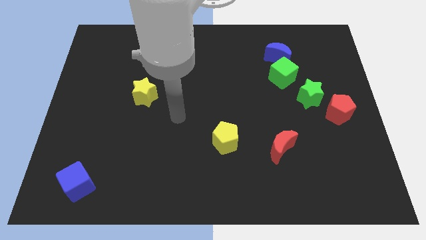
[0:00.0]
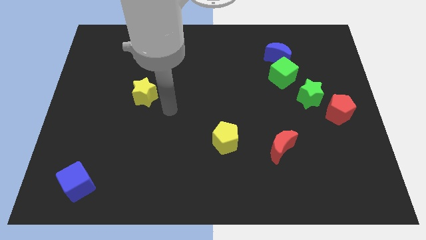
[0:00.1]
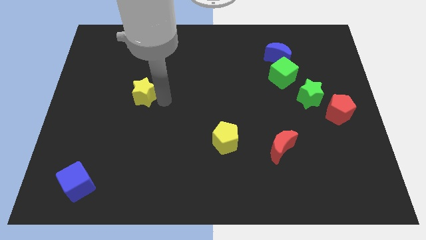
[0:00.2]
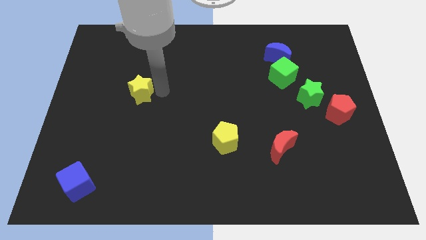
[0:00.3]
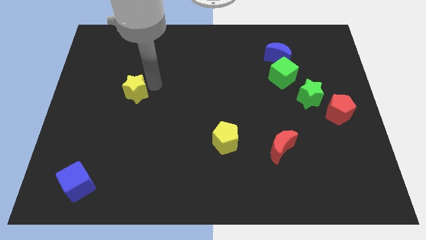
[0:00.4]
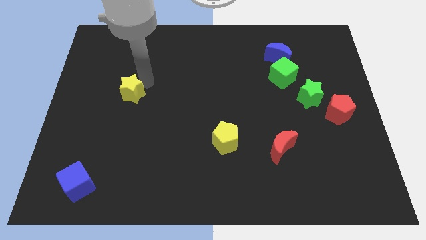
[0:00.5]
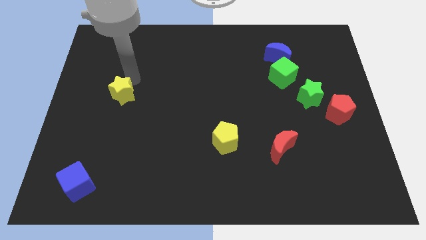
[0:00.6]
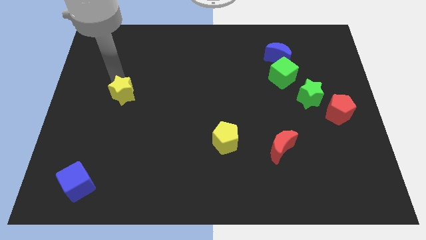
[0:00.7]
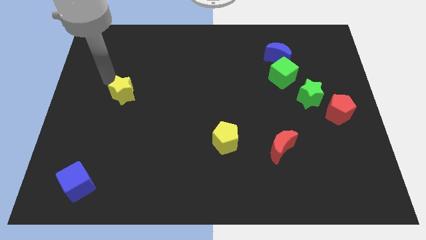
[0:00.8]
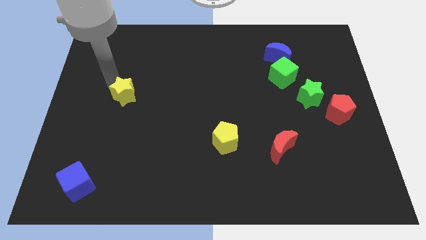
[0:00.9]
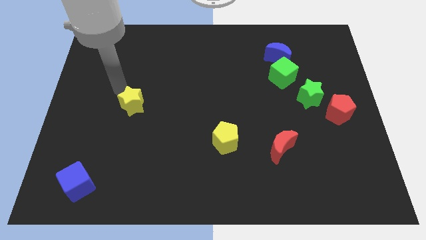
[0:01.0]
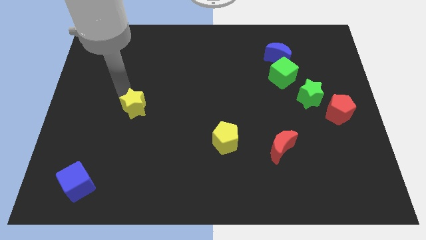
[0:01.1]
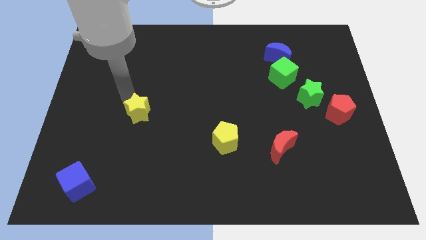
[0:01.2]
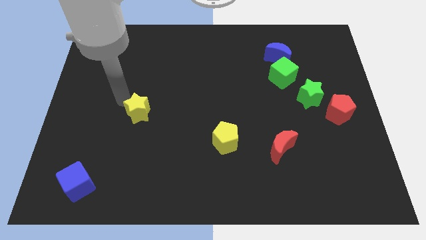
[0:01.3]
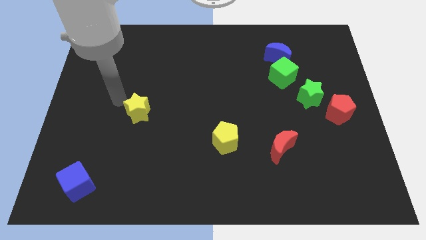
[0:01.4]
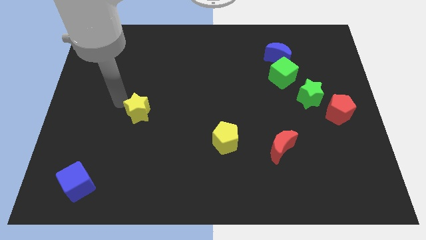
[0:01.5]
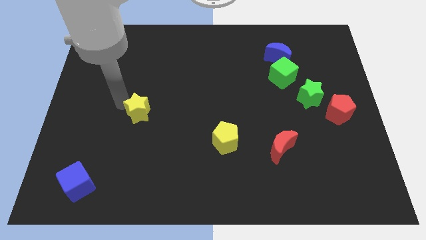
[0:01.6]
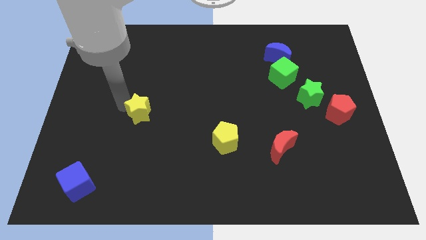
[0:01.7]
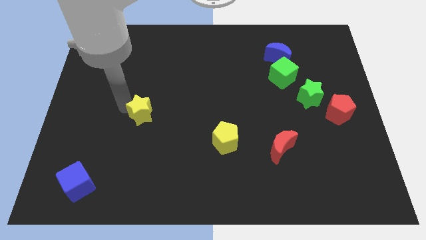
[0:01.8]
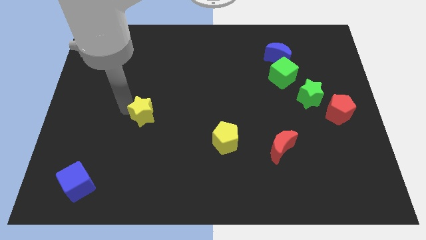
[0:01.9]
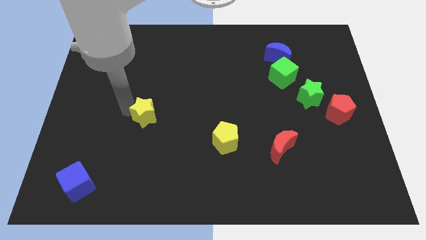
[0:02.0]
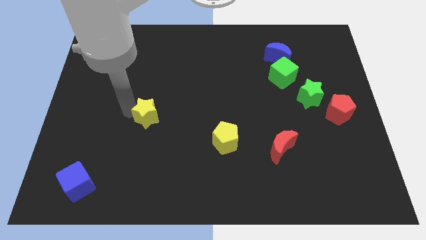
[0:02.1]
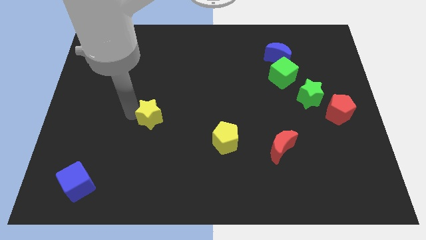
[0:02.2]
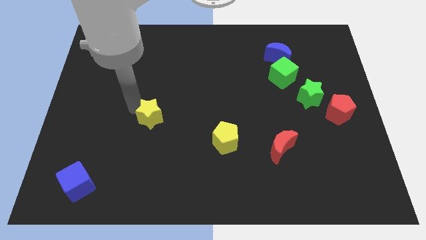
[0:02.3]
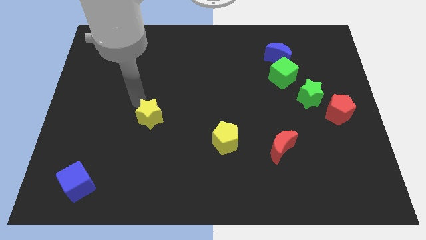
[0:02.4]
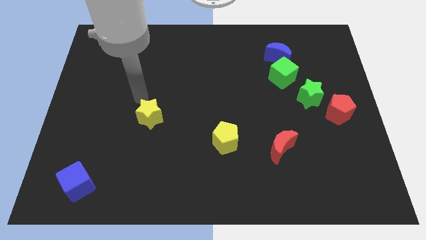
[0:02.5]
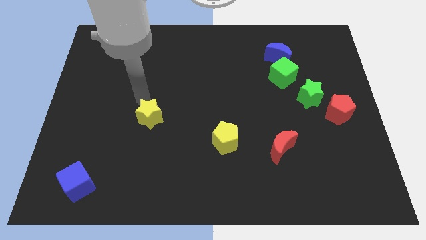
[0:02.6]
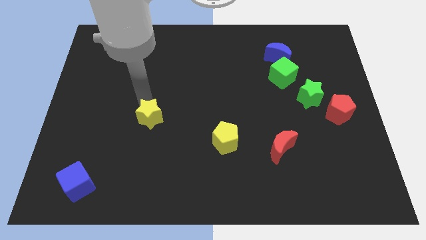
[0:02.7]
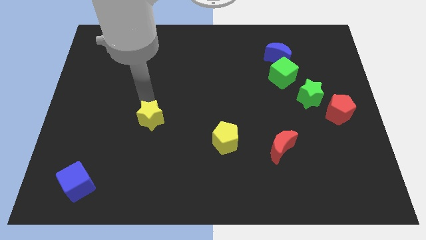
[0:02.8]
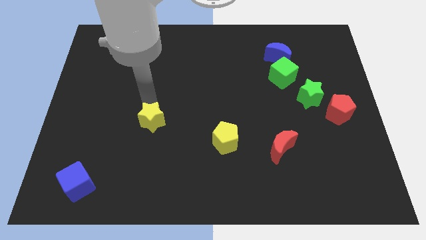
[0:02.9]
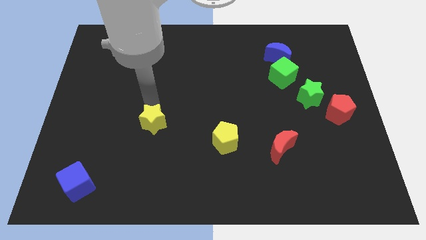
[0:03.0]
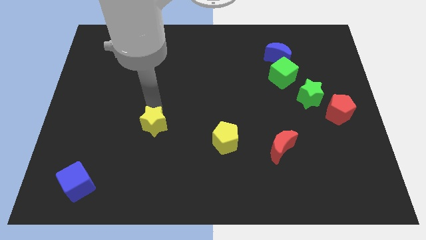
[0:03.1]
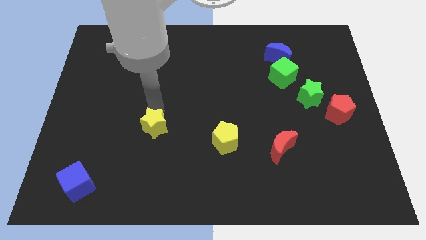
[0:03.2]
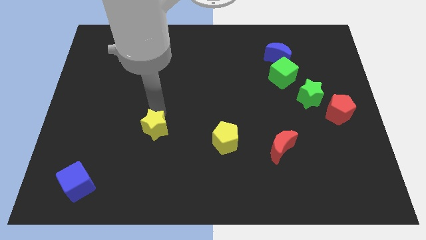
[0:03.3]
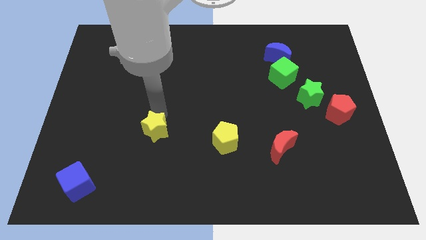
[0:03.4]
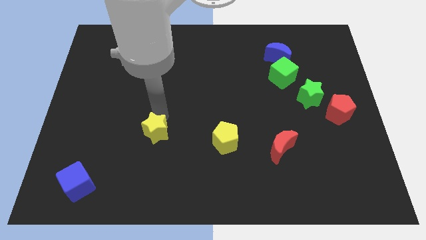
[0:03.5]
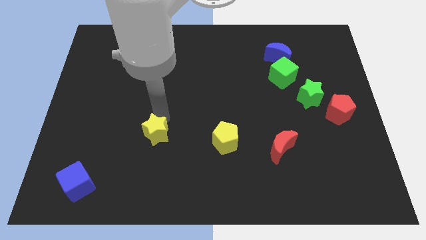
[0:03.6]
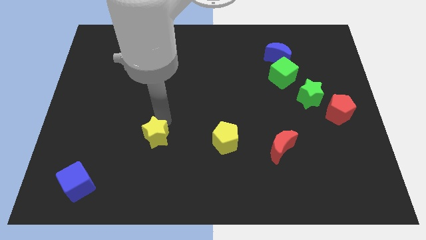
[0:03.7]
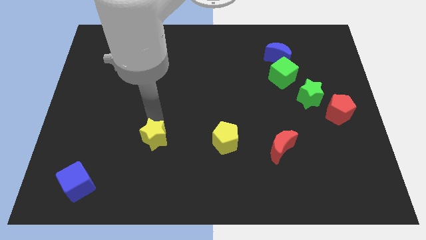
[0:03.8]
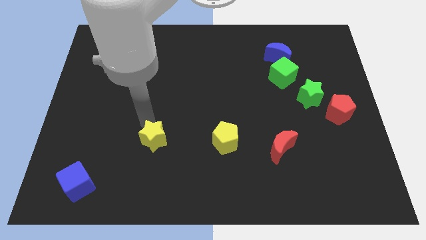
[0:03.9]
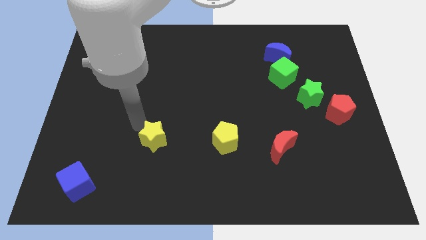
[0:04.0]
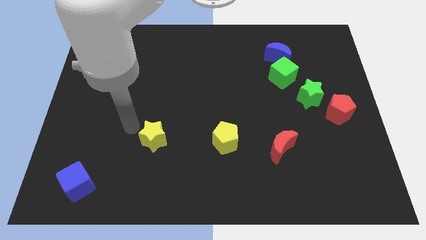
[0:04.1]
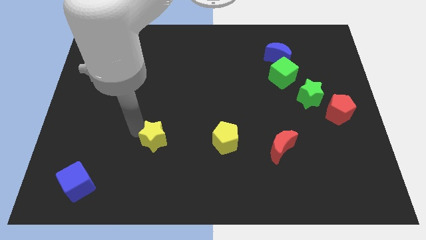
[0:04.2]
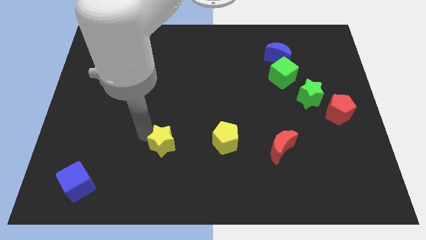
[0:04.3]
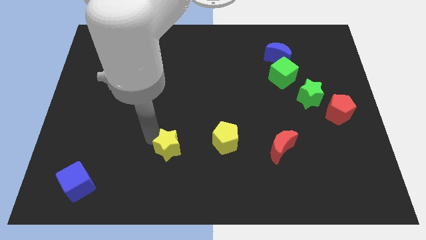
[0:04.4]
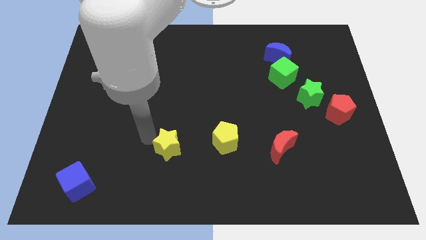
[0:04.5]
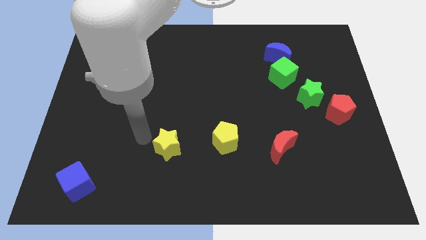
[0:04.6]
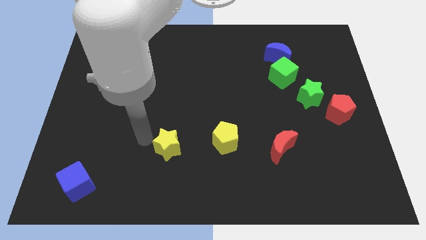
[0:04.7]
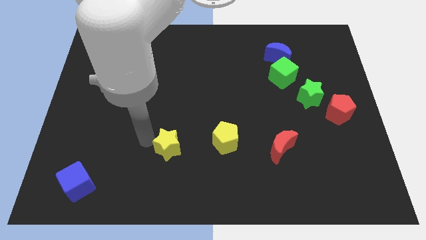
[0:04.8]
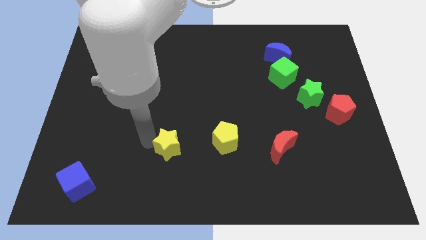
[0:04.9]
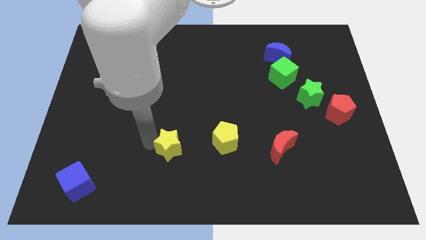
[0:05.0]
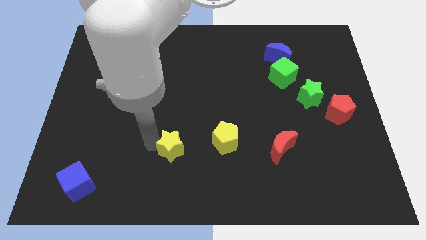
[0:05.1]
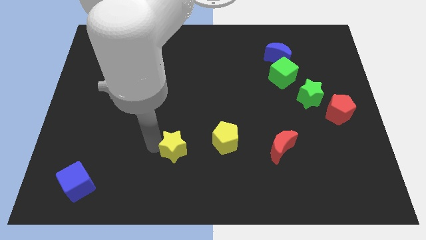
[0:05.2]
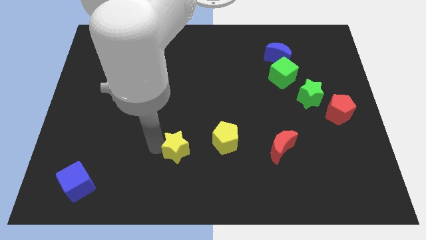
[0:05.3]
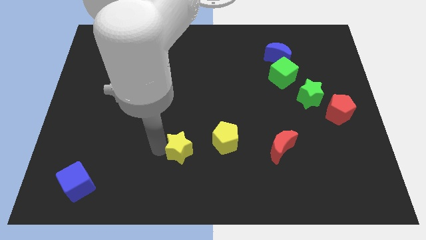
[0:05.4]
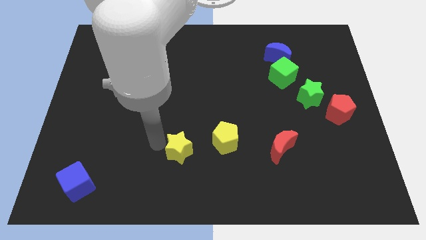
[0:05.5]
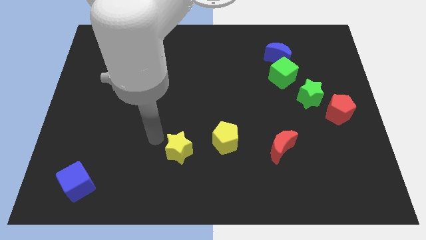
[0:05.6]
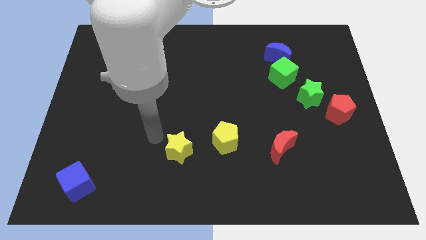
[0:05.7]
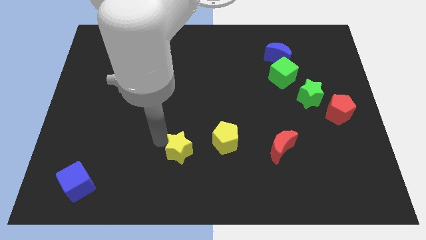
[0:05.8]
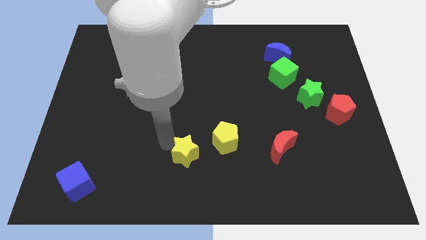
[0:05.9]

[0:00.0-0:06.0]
put the yellow star diagonally down and to the left of the yellow pentagon

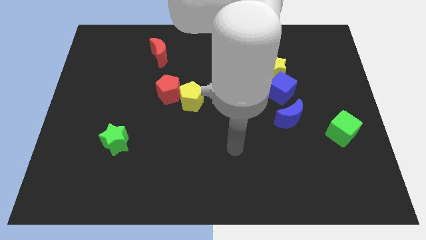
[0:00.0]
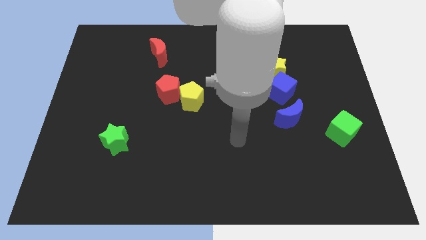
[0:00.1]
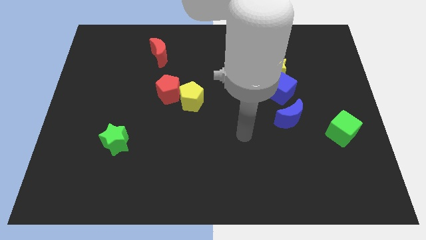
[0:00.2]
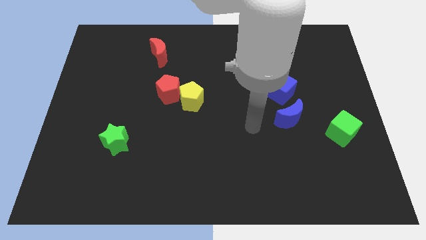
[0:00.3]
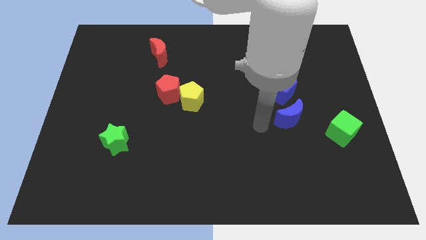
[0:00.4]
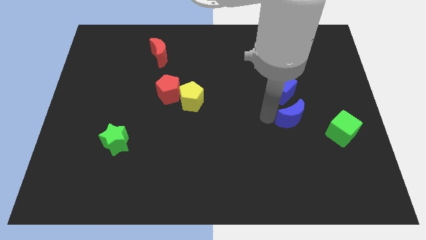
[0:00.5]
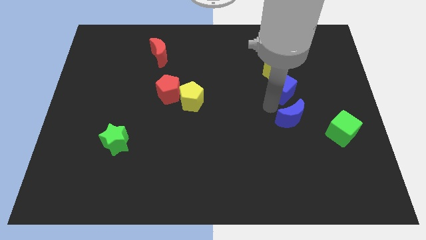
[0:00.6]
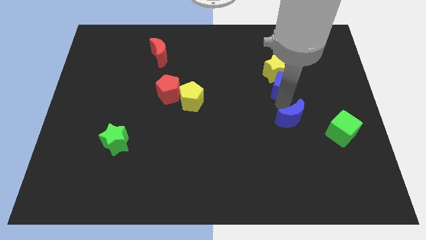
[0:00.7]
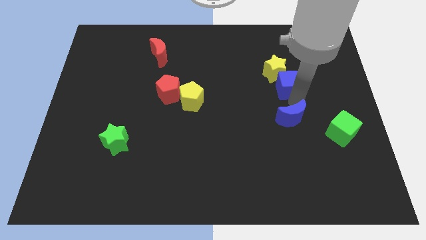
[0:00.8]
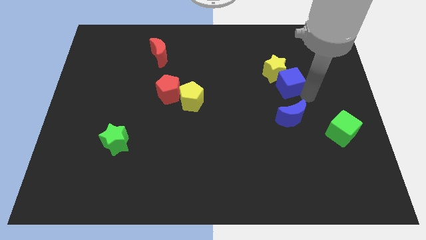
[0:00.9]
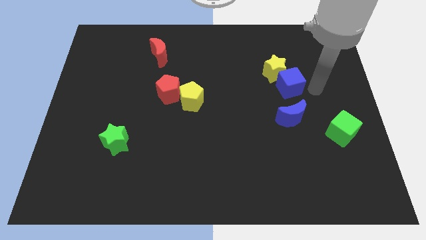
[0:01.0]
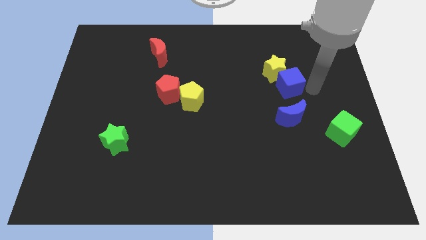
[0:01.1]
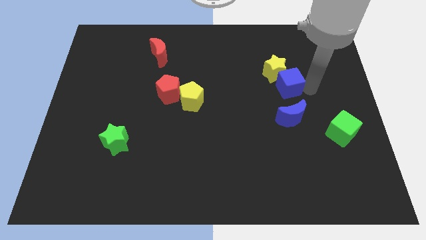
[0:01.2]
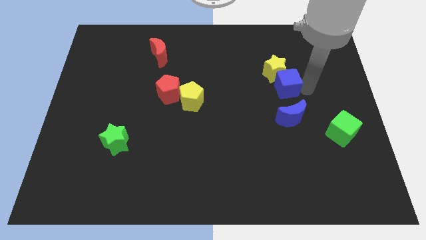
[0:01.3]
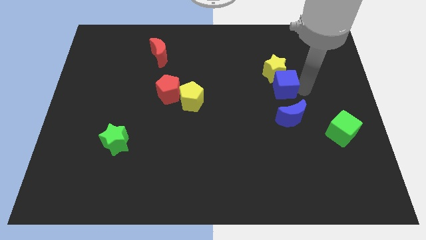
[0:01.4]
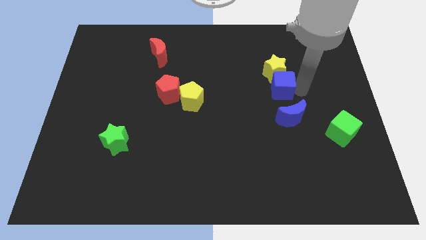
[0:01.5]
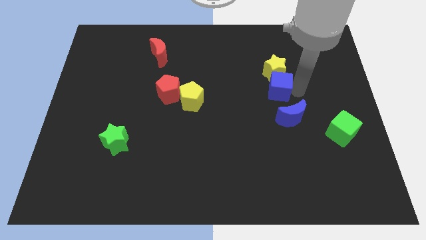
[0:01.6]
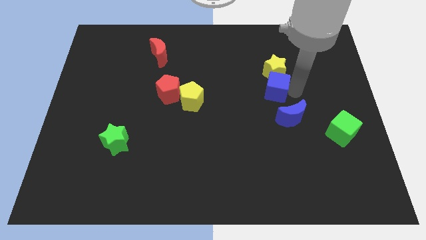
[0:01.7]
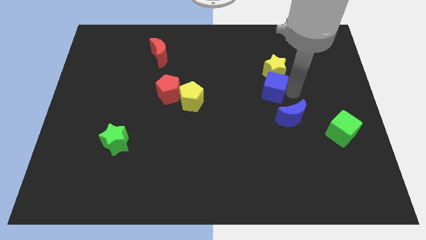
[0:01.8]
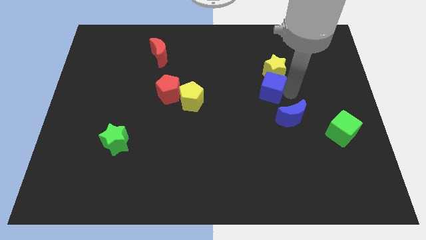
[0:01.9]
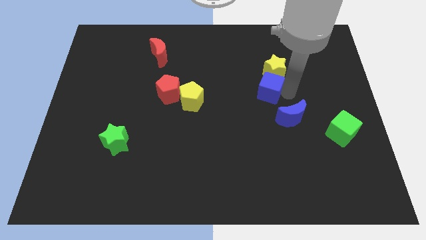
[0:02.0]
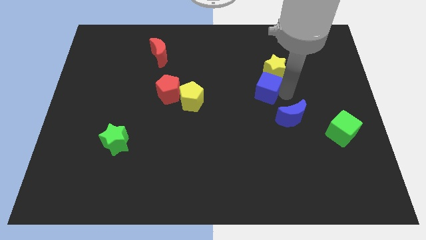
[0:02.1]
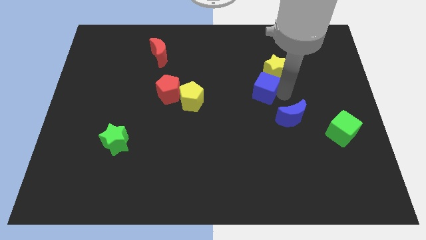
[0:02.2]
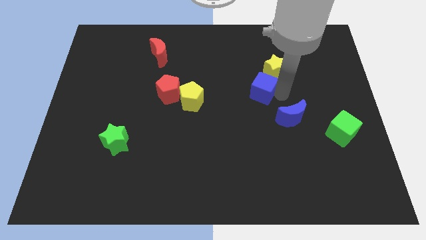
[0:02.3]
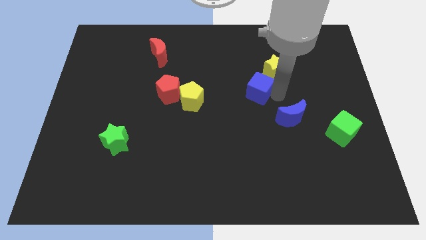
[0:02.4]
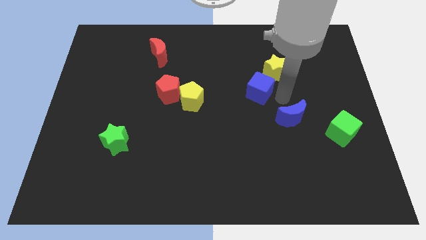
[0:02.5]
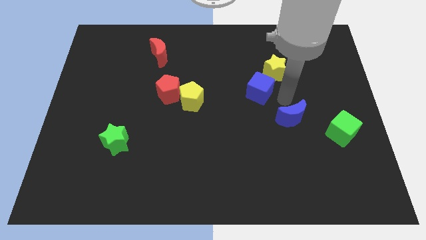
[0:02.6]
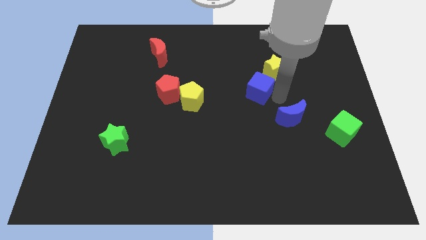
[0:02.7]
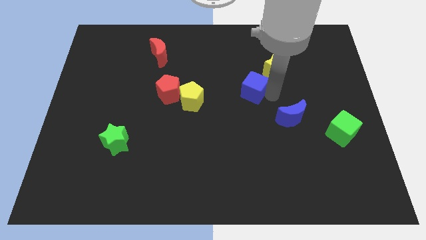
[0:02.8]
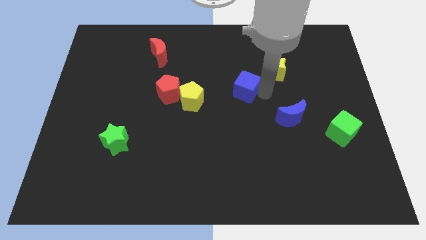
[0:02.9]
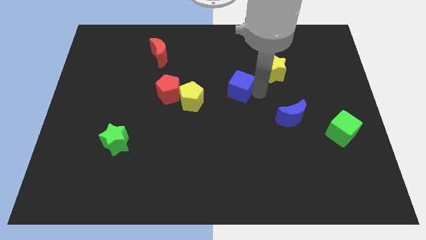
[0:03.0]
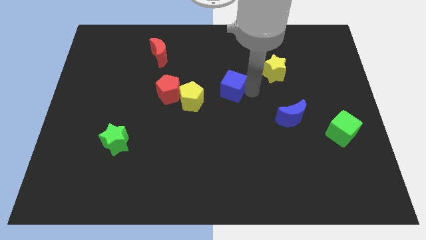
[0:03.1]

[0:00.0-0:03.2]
push the blue cube to the top right of the yellow pentagon
